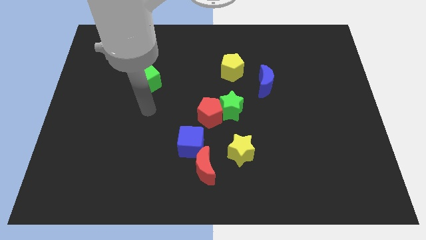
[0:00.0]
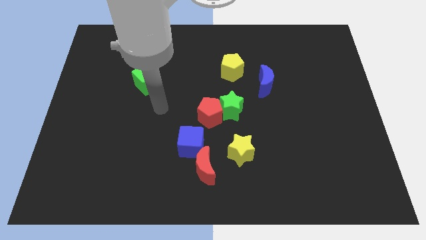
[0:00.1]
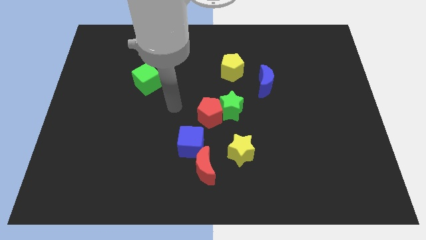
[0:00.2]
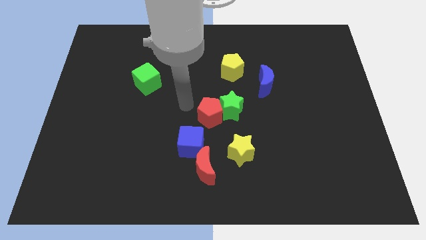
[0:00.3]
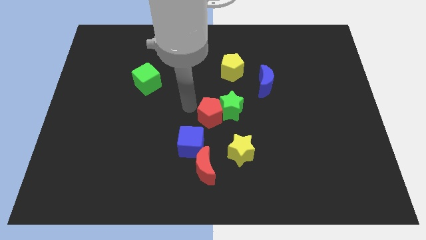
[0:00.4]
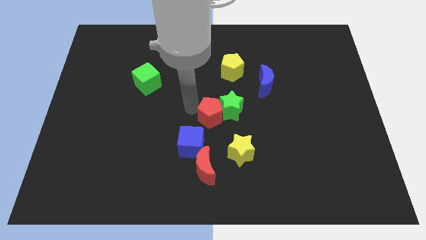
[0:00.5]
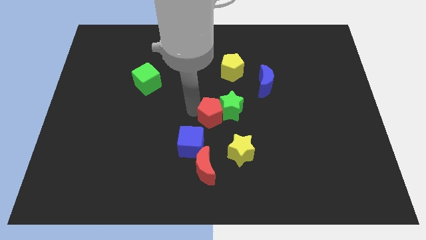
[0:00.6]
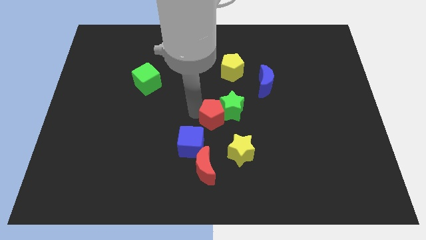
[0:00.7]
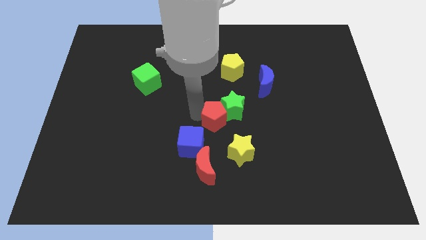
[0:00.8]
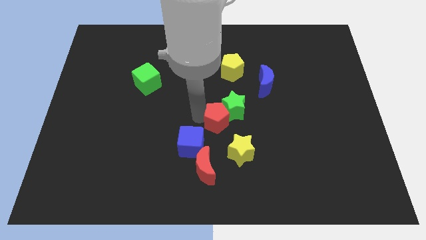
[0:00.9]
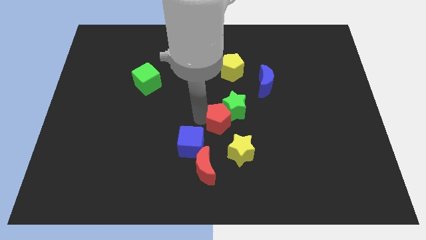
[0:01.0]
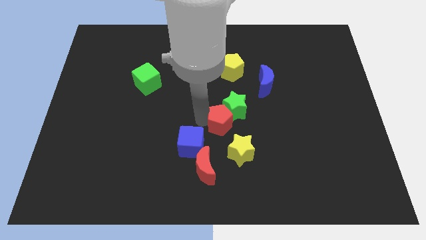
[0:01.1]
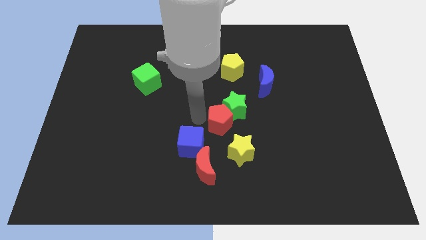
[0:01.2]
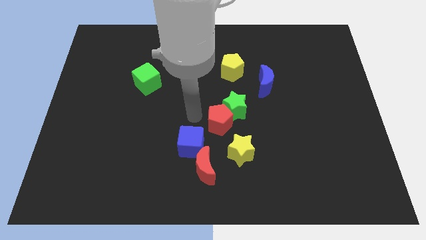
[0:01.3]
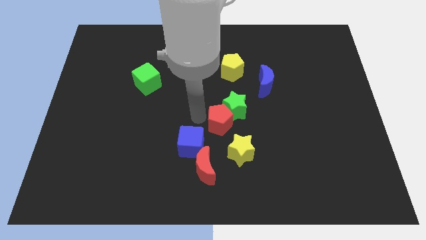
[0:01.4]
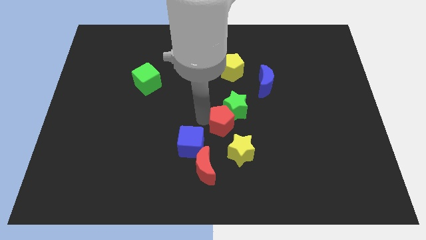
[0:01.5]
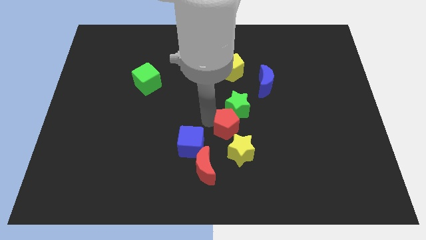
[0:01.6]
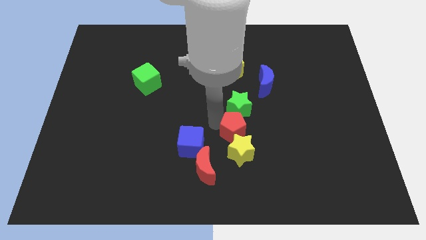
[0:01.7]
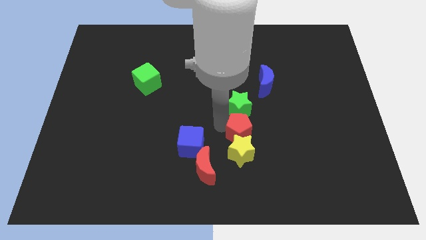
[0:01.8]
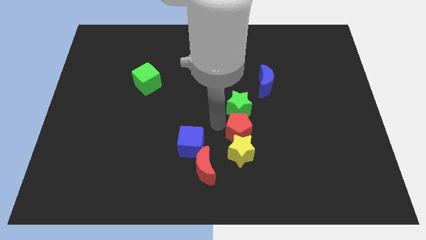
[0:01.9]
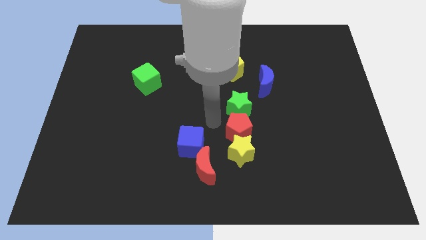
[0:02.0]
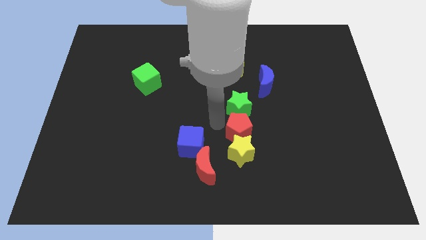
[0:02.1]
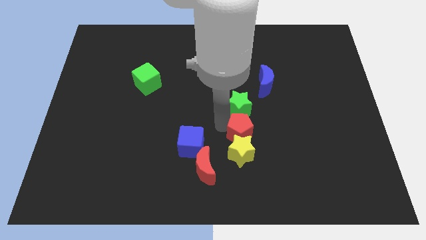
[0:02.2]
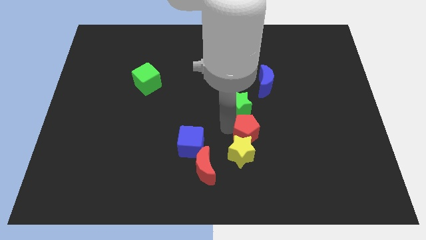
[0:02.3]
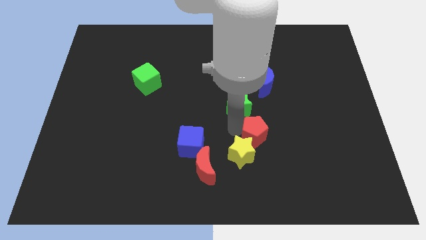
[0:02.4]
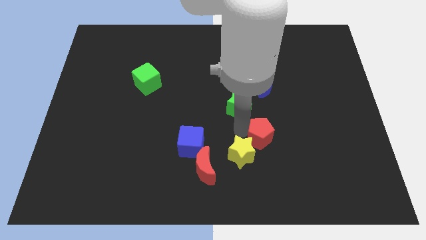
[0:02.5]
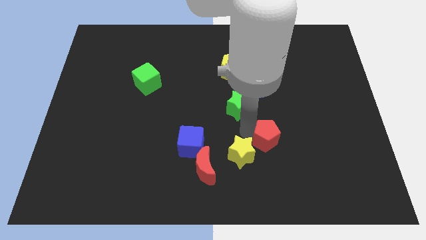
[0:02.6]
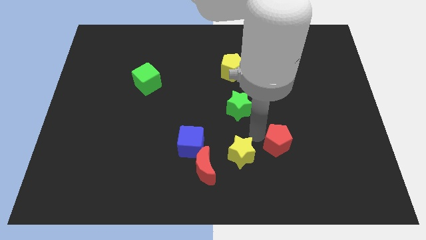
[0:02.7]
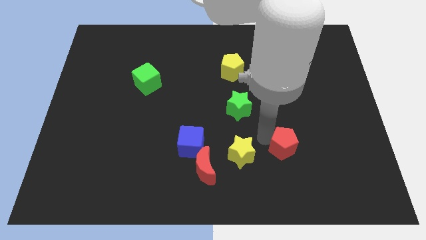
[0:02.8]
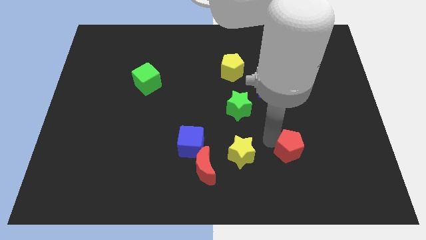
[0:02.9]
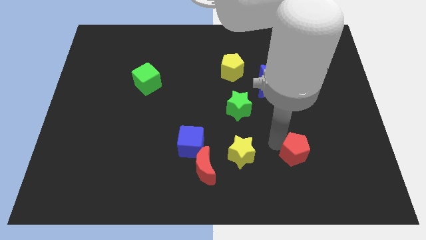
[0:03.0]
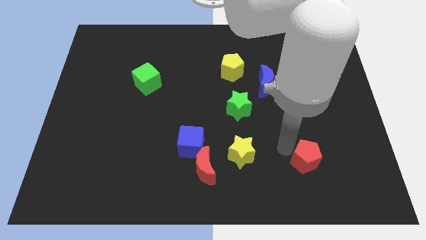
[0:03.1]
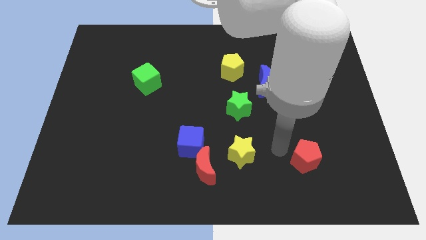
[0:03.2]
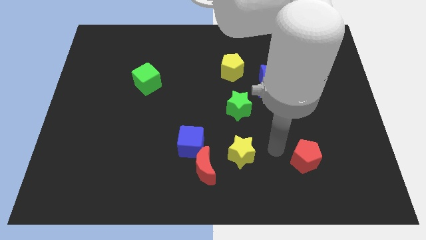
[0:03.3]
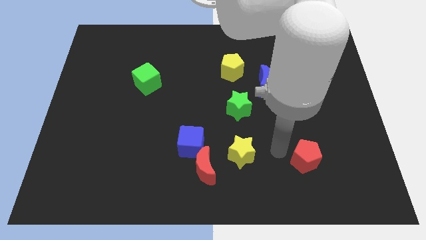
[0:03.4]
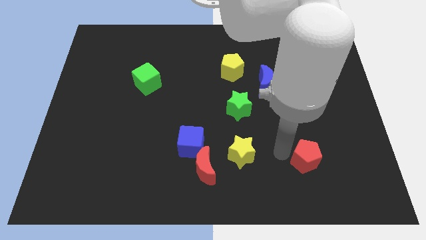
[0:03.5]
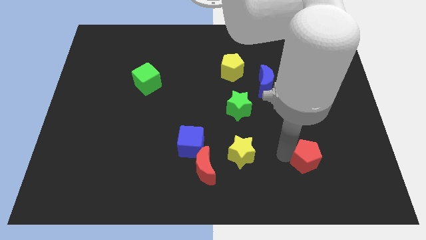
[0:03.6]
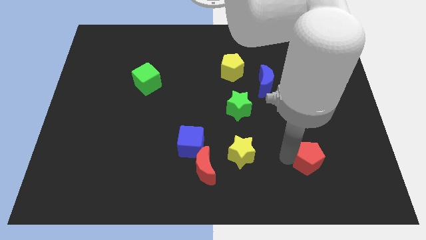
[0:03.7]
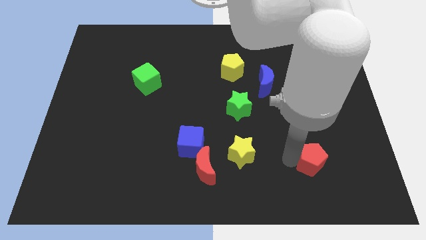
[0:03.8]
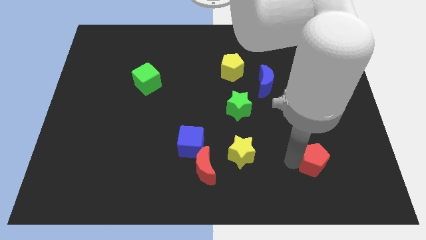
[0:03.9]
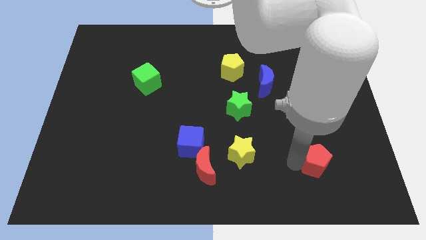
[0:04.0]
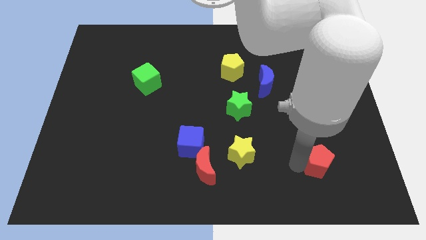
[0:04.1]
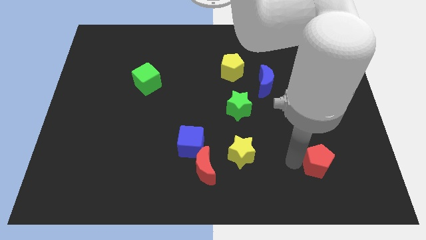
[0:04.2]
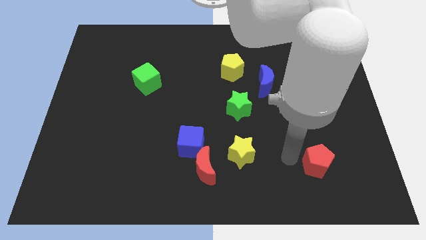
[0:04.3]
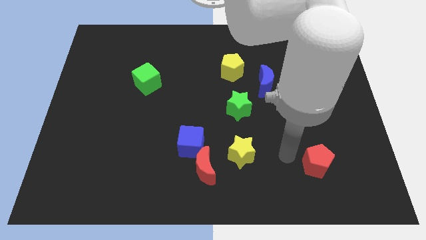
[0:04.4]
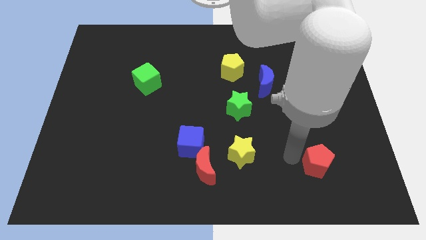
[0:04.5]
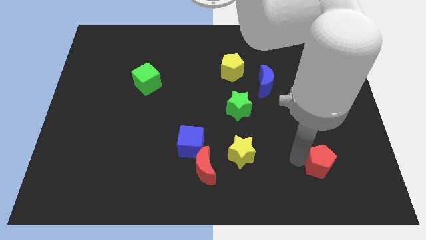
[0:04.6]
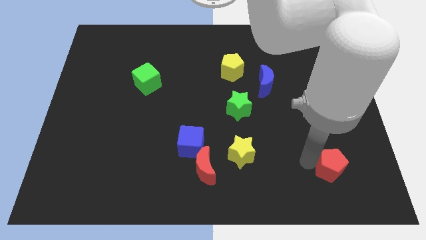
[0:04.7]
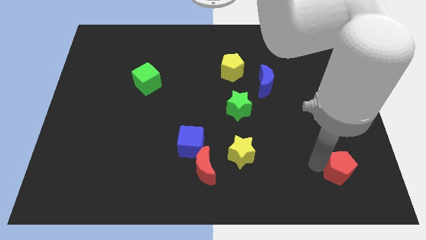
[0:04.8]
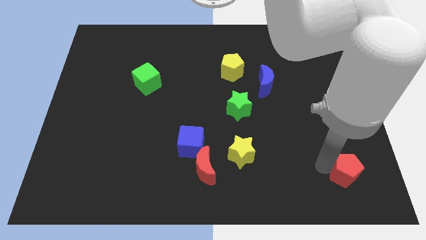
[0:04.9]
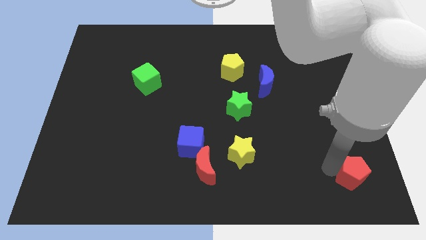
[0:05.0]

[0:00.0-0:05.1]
move the red pentagon to the bottom right corner

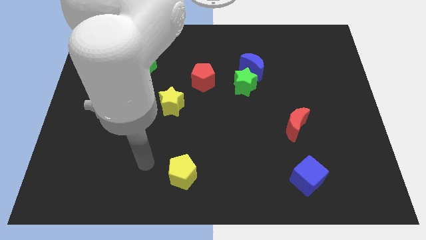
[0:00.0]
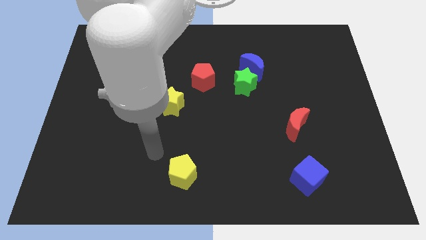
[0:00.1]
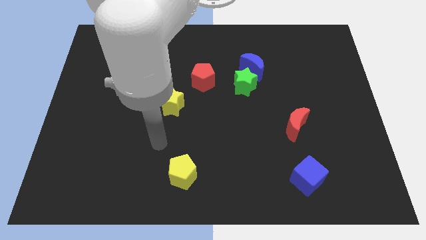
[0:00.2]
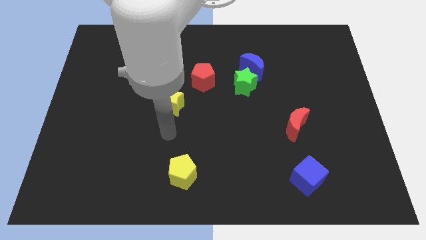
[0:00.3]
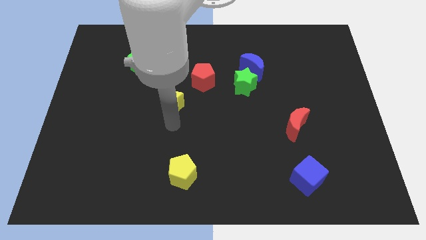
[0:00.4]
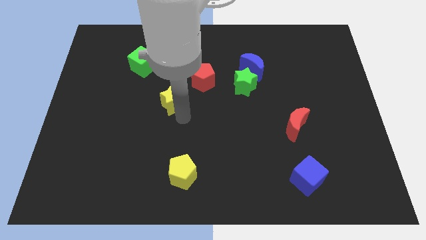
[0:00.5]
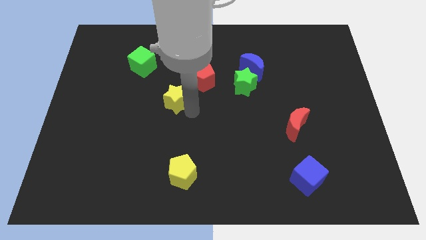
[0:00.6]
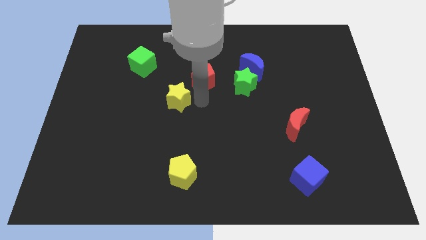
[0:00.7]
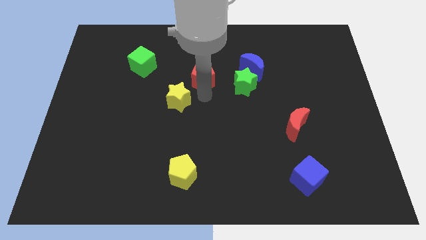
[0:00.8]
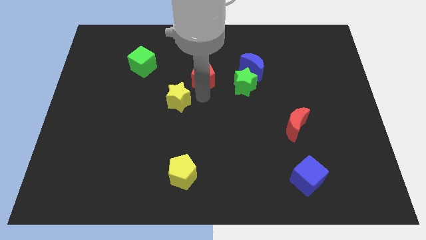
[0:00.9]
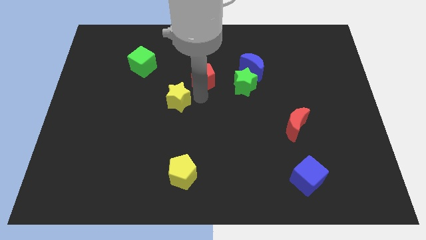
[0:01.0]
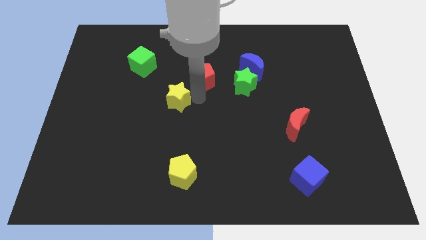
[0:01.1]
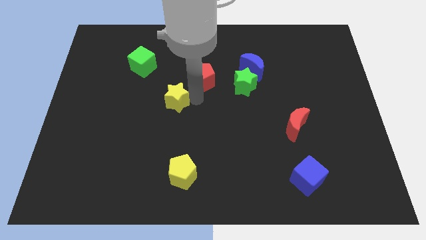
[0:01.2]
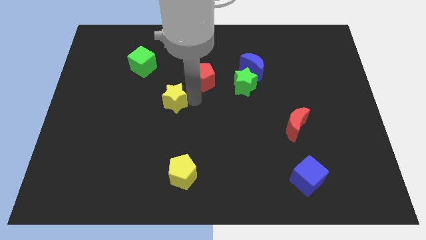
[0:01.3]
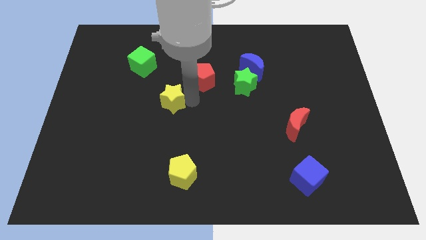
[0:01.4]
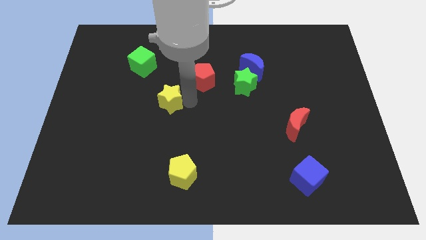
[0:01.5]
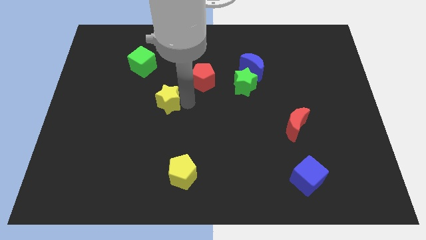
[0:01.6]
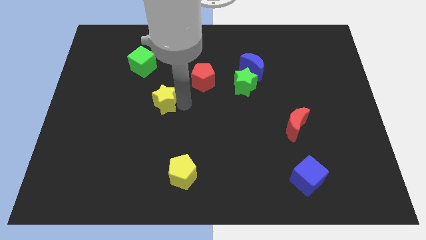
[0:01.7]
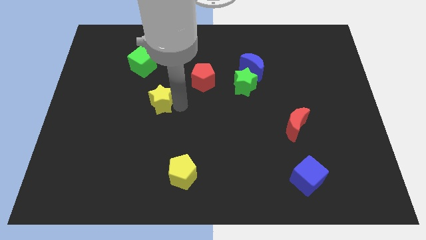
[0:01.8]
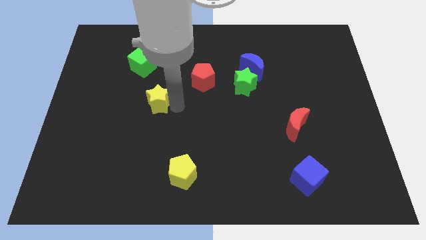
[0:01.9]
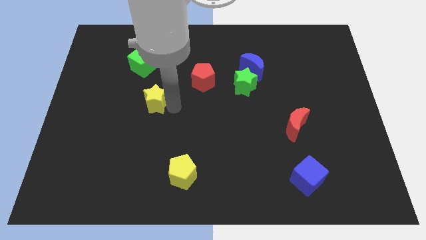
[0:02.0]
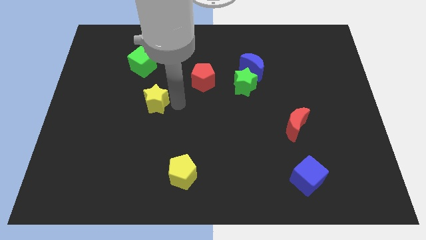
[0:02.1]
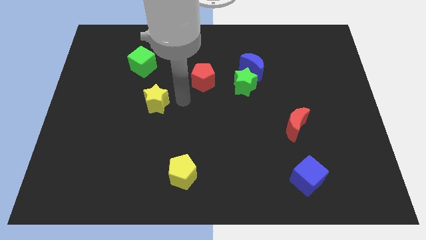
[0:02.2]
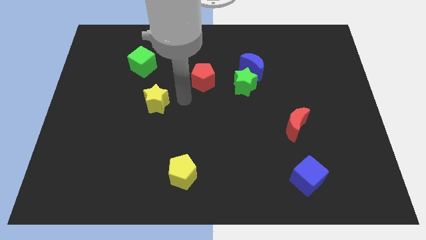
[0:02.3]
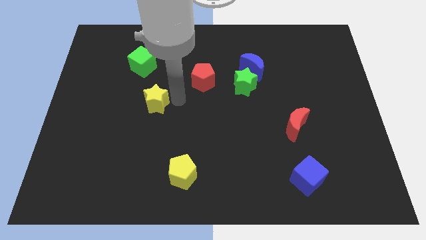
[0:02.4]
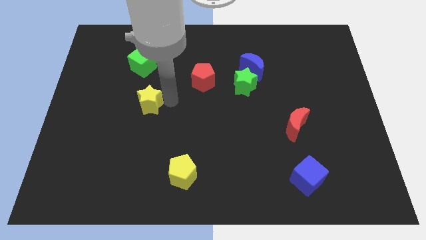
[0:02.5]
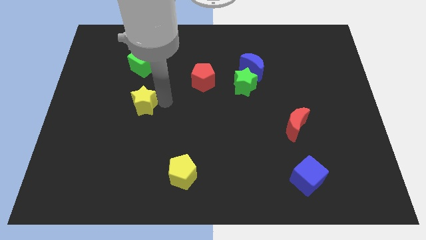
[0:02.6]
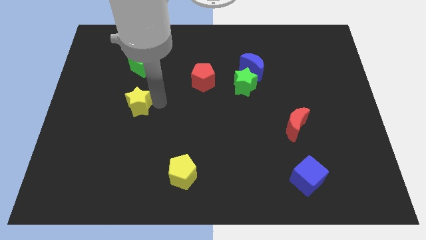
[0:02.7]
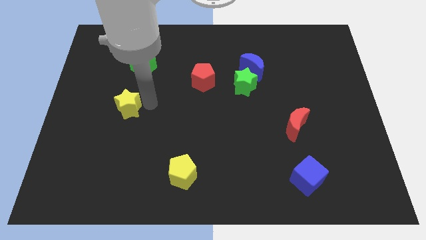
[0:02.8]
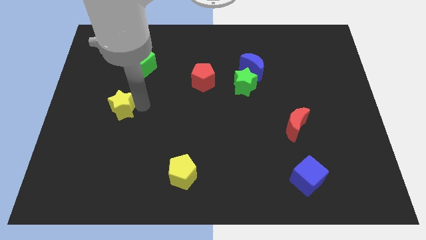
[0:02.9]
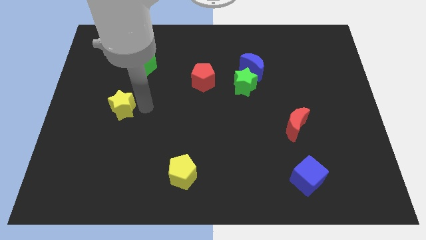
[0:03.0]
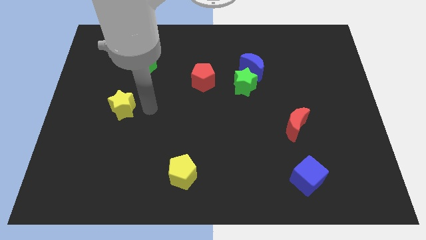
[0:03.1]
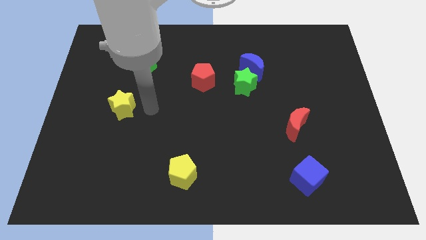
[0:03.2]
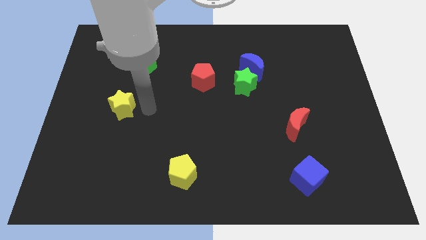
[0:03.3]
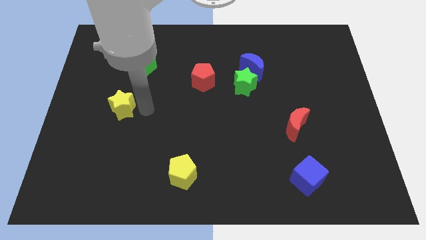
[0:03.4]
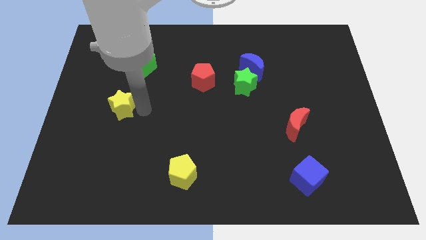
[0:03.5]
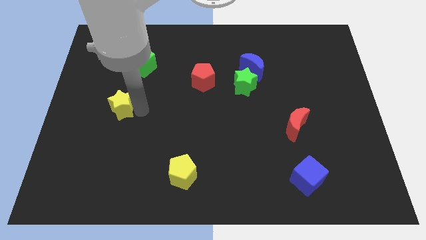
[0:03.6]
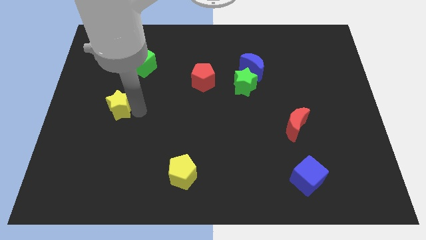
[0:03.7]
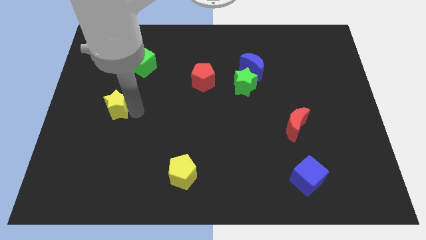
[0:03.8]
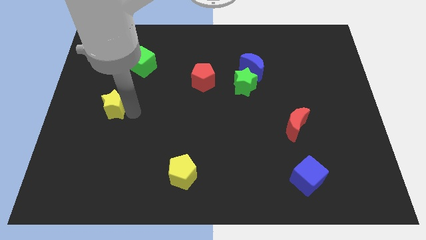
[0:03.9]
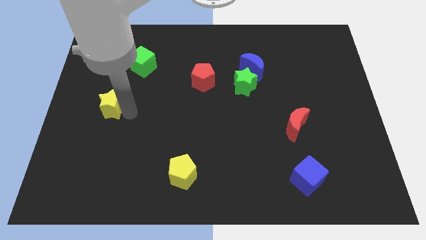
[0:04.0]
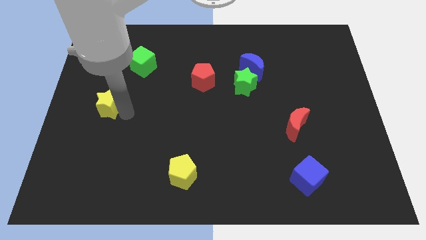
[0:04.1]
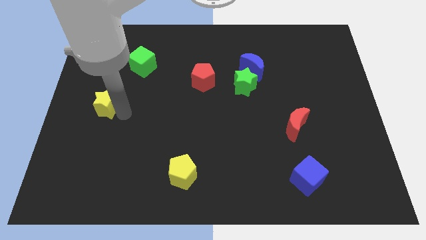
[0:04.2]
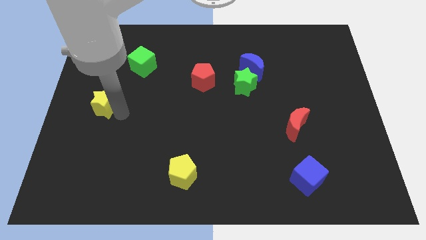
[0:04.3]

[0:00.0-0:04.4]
slide the yellow star to the left side of the board
